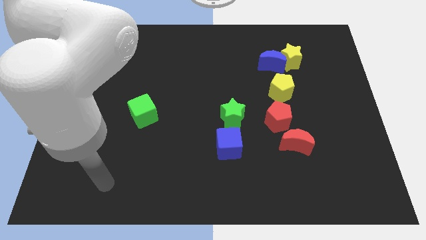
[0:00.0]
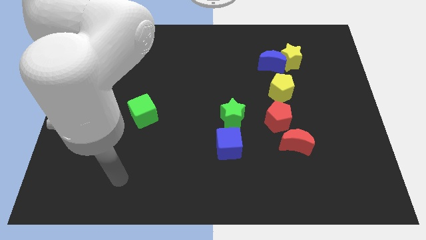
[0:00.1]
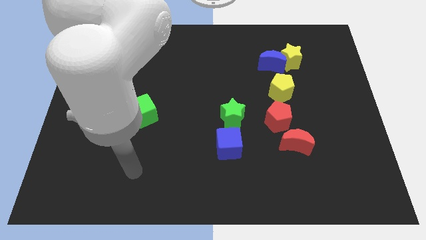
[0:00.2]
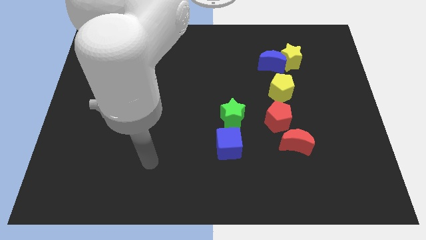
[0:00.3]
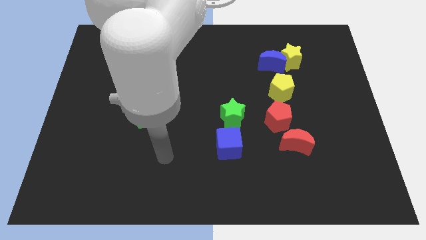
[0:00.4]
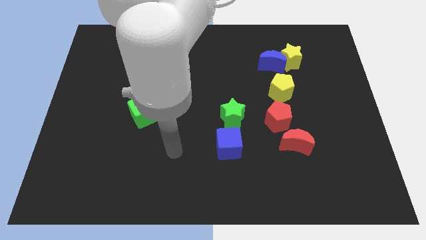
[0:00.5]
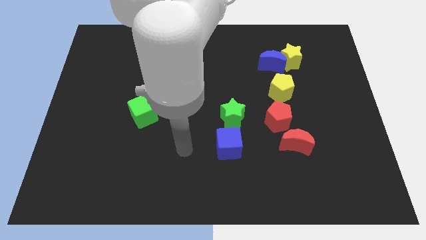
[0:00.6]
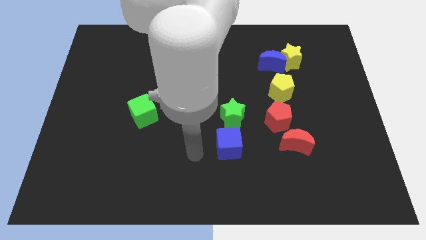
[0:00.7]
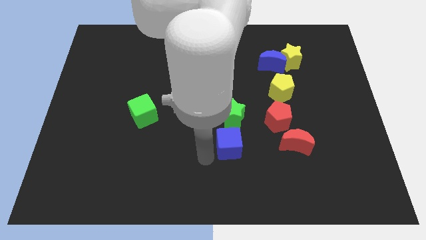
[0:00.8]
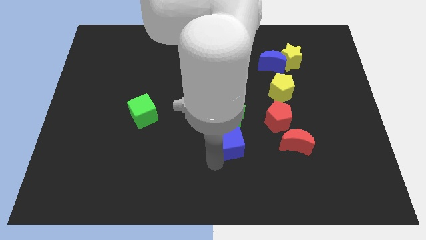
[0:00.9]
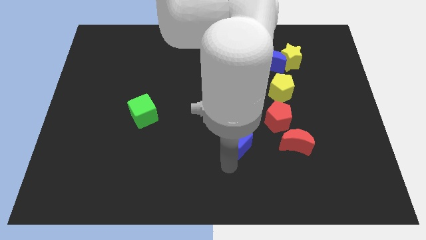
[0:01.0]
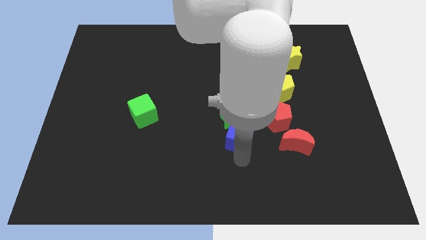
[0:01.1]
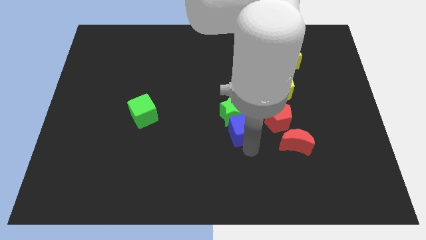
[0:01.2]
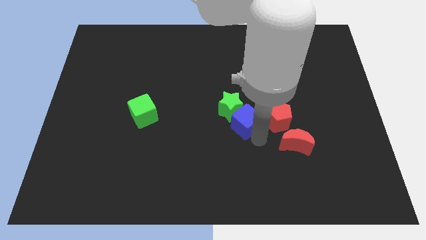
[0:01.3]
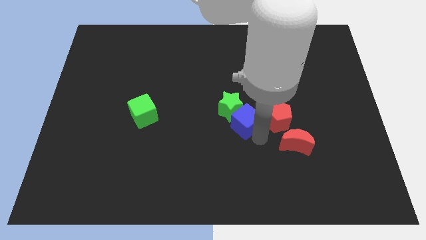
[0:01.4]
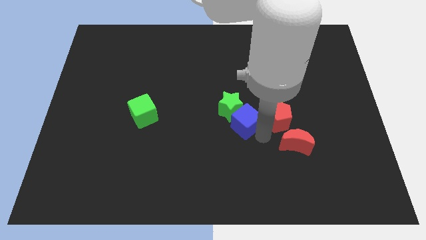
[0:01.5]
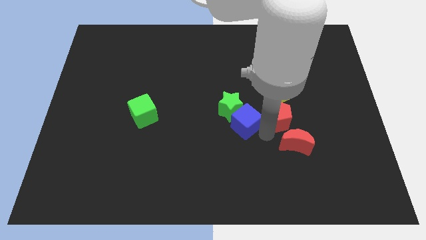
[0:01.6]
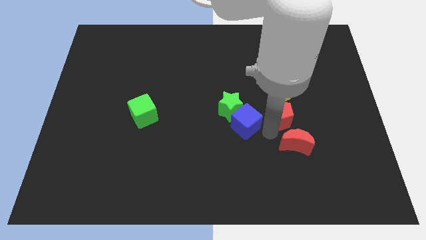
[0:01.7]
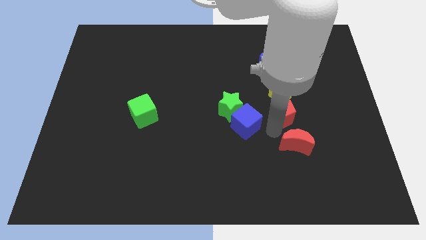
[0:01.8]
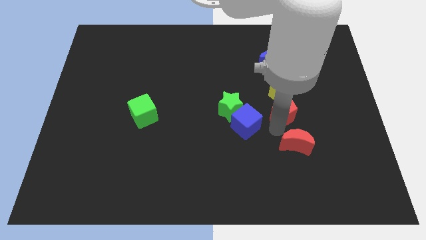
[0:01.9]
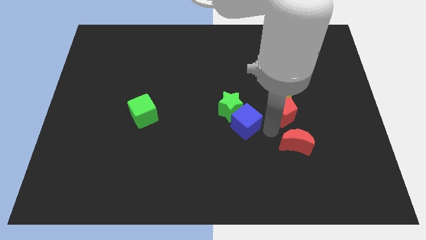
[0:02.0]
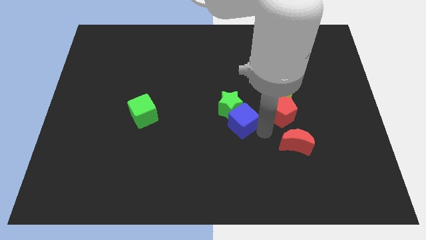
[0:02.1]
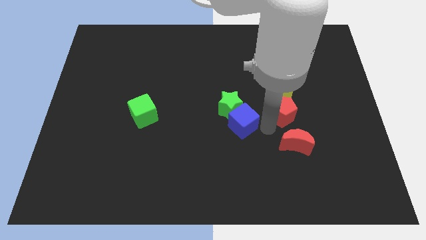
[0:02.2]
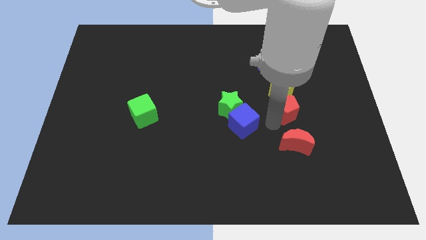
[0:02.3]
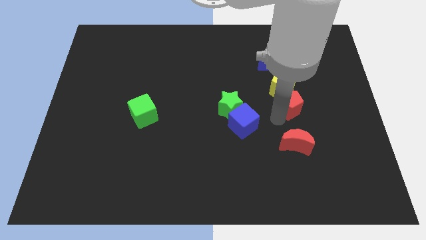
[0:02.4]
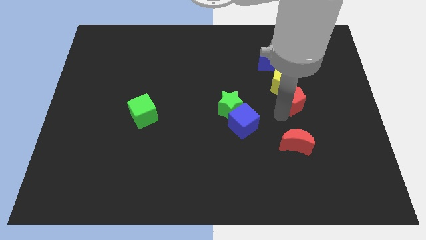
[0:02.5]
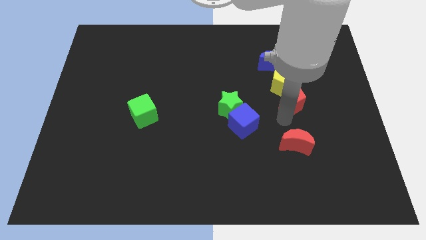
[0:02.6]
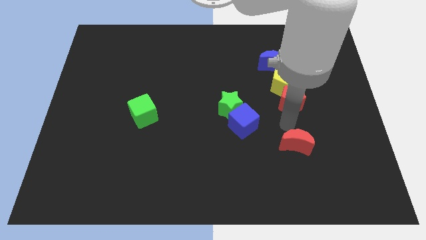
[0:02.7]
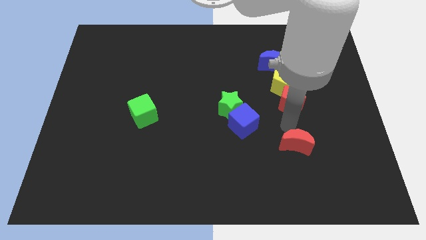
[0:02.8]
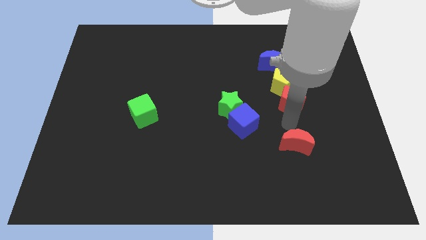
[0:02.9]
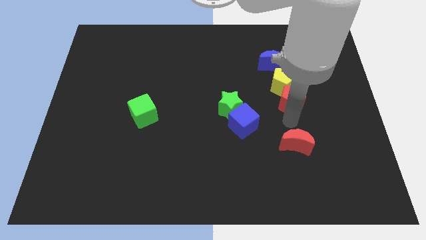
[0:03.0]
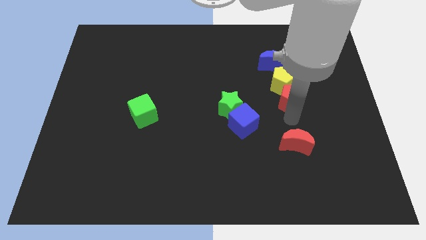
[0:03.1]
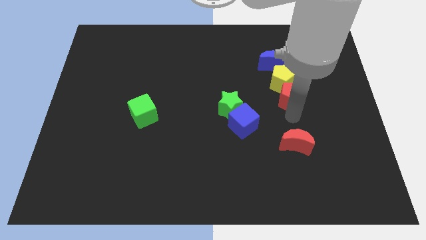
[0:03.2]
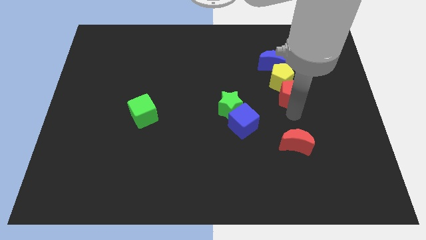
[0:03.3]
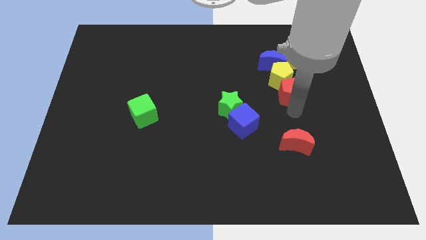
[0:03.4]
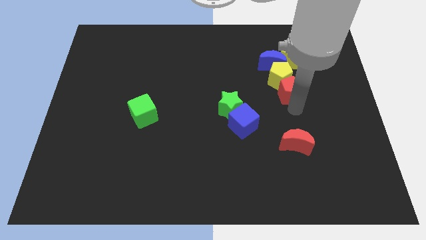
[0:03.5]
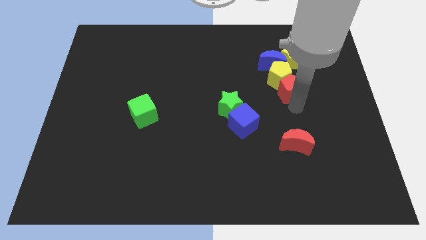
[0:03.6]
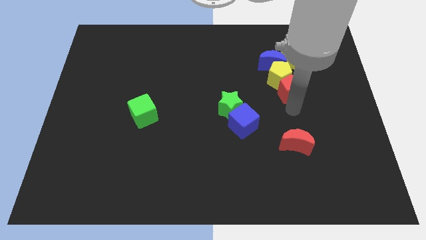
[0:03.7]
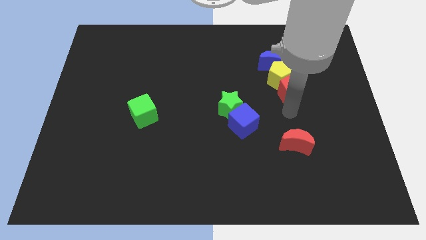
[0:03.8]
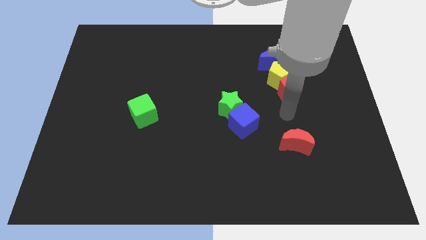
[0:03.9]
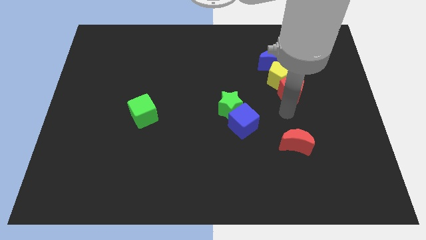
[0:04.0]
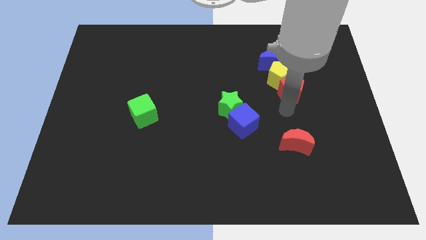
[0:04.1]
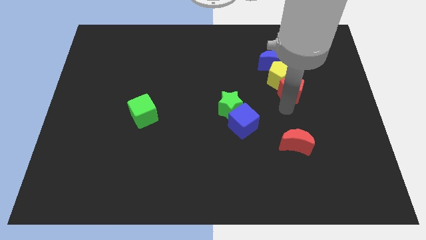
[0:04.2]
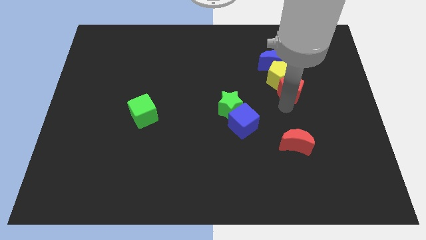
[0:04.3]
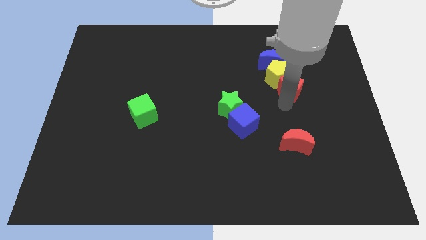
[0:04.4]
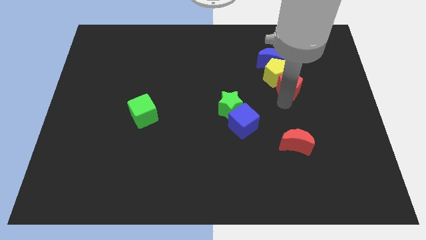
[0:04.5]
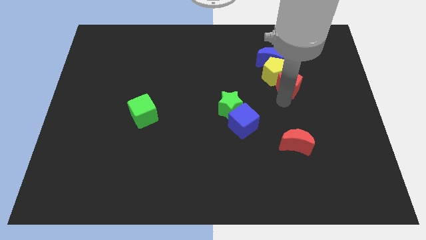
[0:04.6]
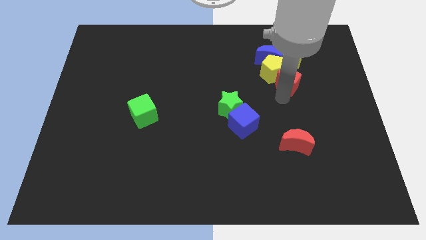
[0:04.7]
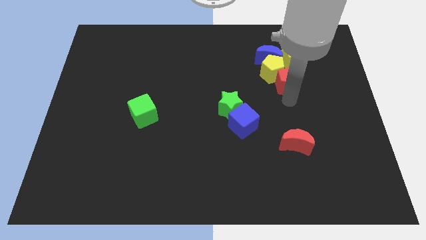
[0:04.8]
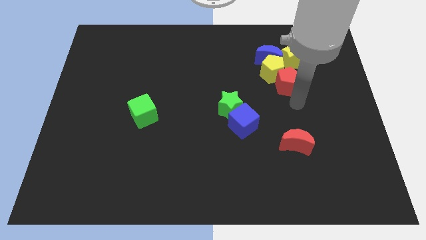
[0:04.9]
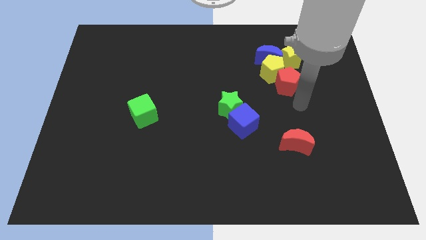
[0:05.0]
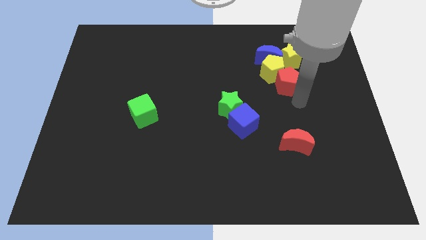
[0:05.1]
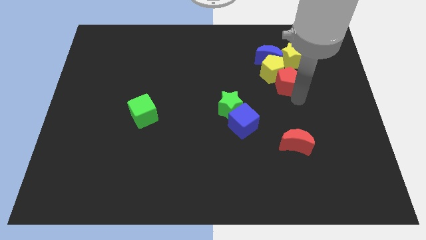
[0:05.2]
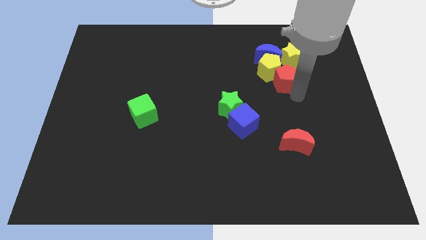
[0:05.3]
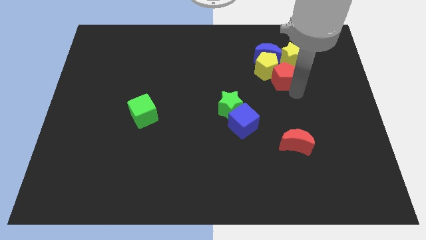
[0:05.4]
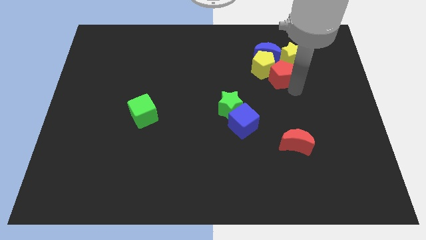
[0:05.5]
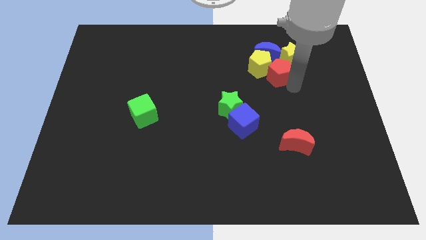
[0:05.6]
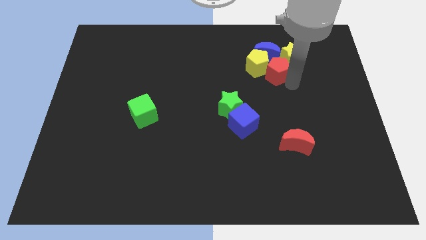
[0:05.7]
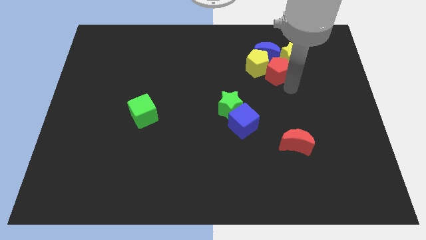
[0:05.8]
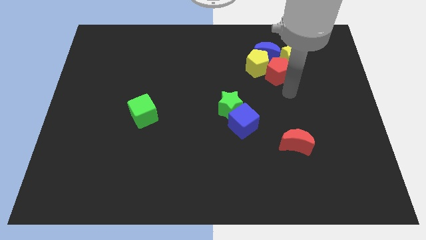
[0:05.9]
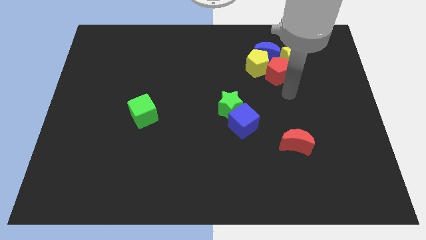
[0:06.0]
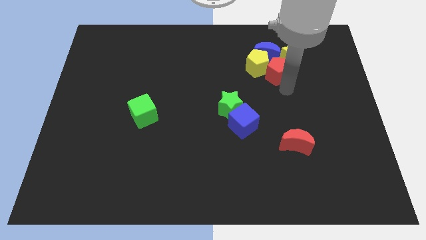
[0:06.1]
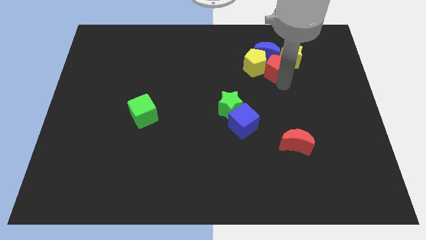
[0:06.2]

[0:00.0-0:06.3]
push the red pentagon close to the blue moon

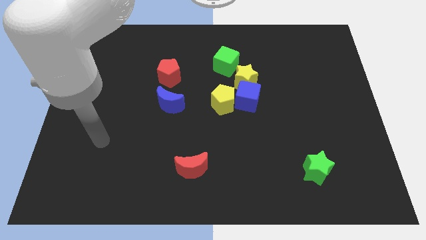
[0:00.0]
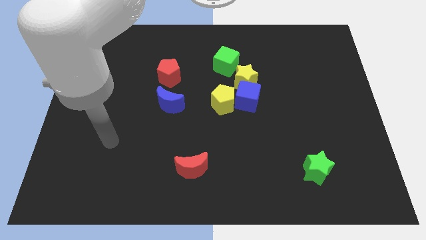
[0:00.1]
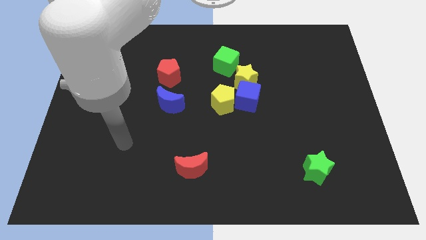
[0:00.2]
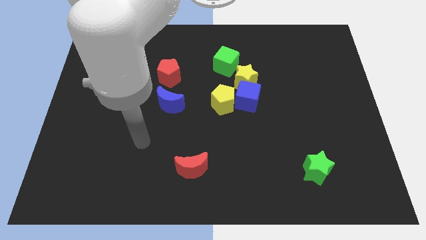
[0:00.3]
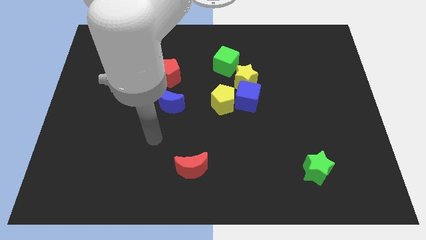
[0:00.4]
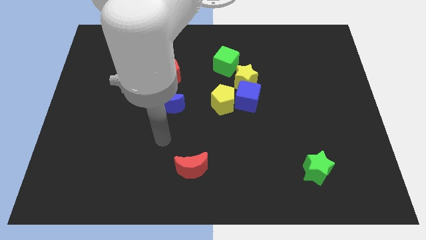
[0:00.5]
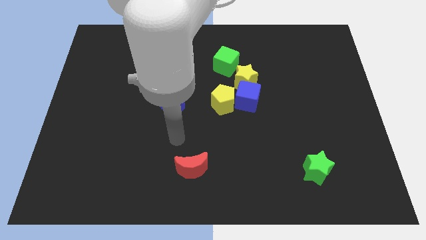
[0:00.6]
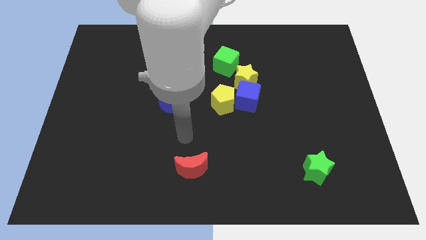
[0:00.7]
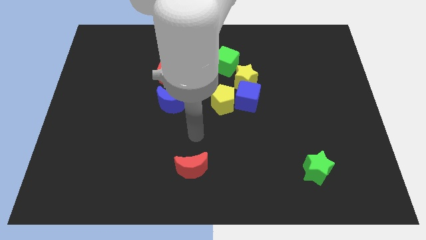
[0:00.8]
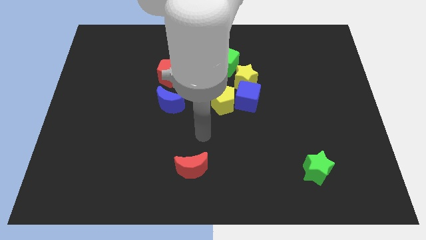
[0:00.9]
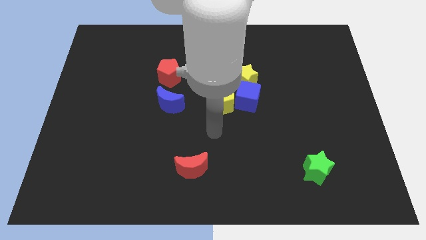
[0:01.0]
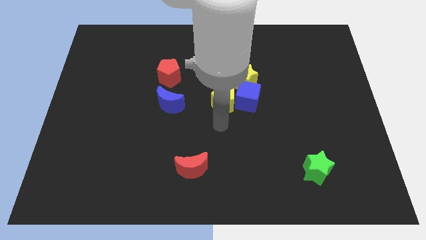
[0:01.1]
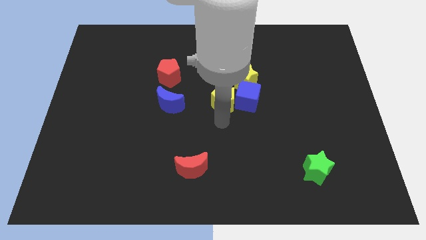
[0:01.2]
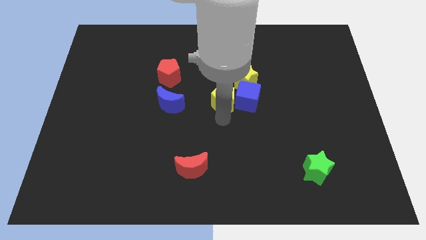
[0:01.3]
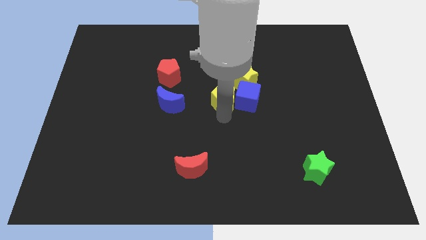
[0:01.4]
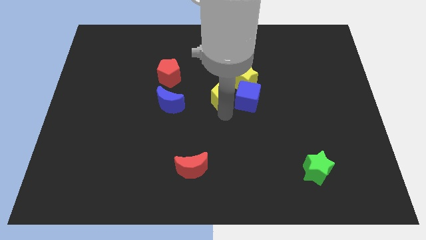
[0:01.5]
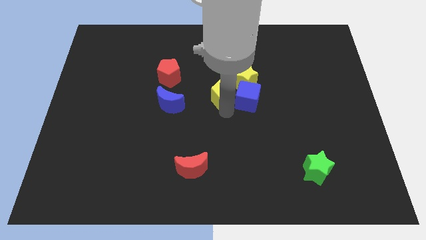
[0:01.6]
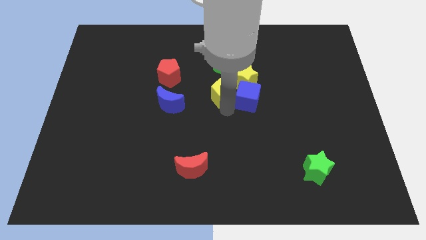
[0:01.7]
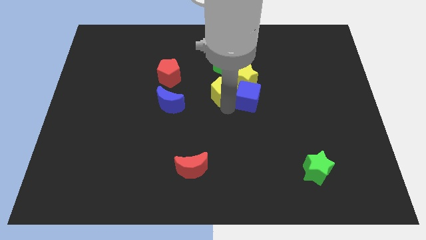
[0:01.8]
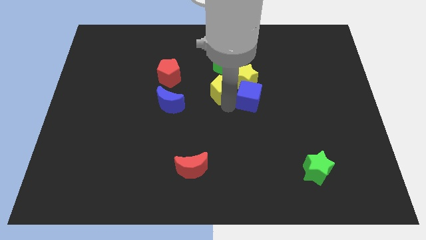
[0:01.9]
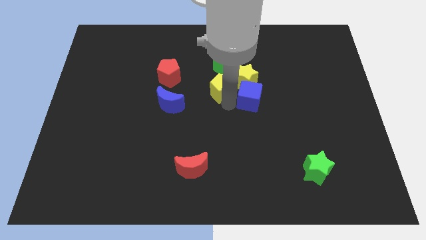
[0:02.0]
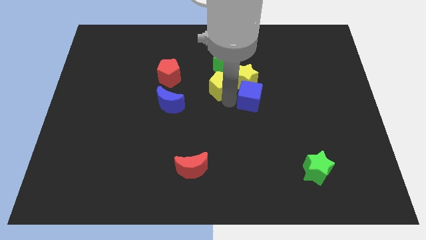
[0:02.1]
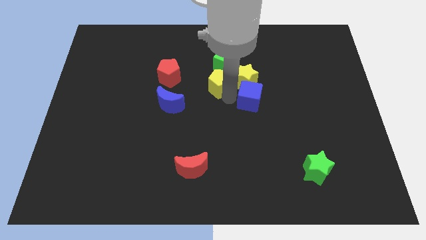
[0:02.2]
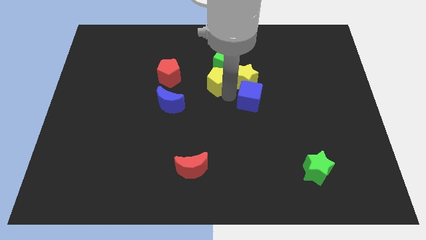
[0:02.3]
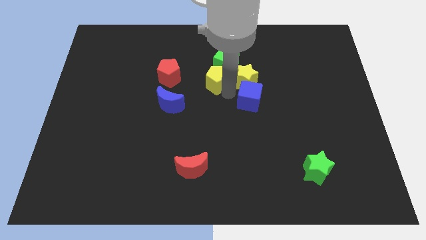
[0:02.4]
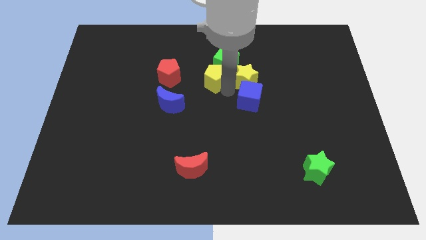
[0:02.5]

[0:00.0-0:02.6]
push the yellow pentagon to the green cube
